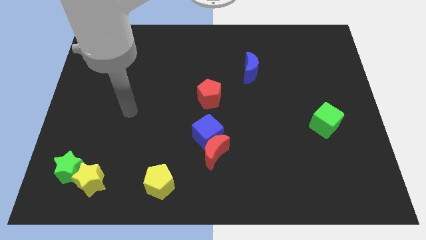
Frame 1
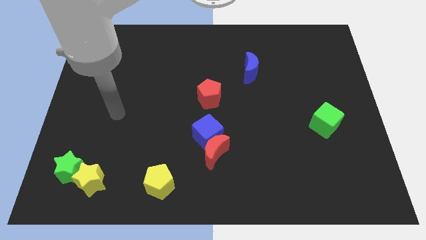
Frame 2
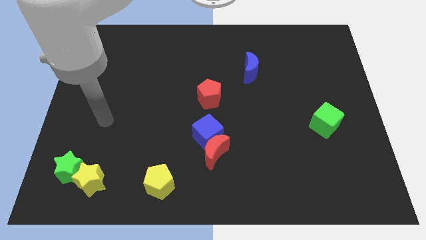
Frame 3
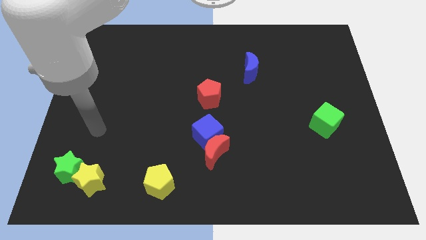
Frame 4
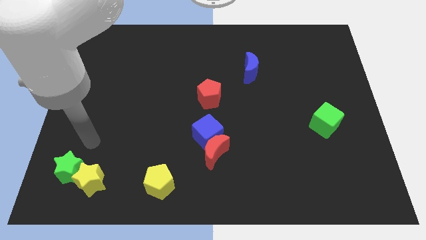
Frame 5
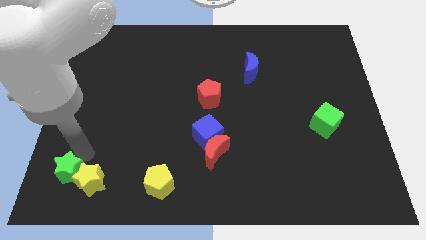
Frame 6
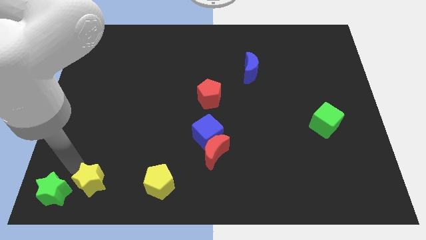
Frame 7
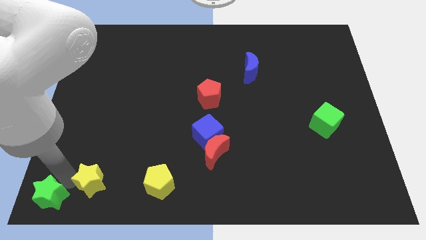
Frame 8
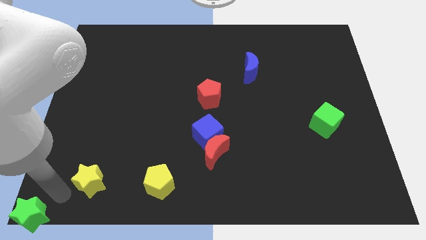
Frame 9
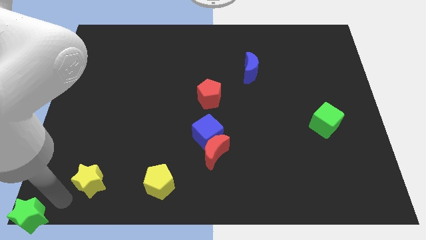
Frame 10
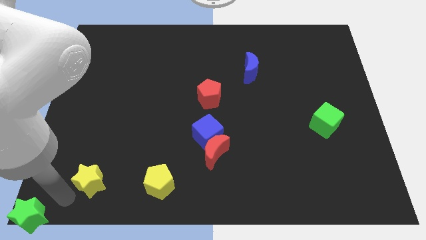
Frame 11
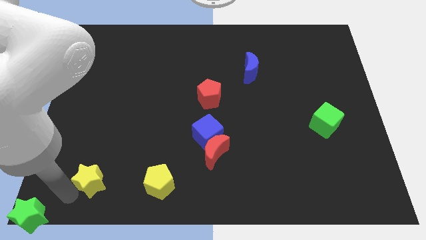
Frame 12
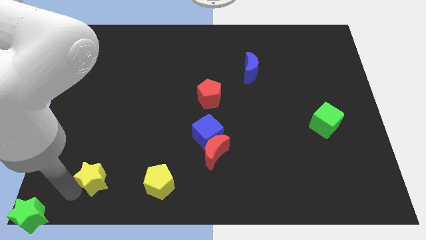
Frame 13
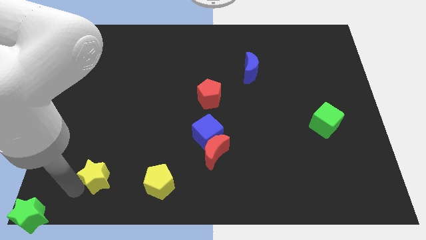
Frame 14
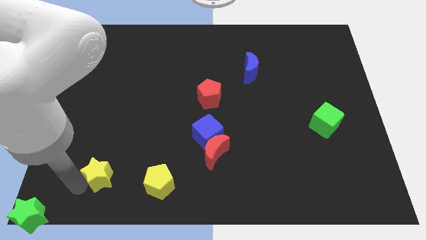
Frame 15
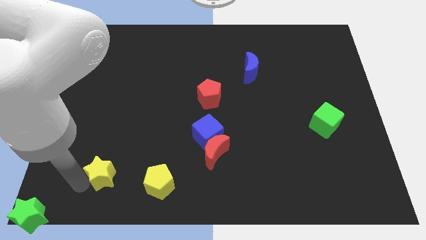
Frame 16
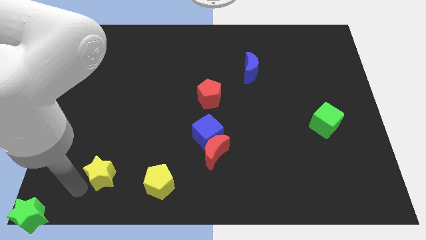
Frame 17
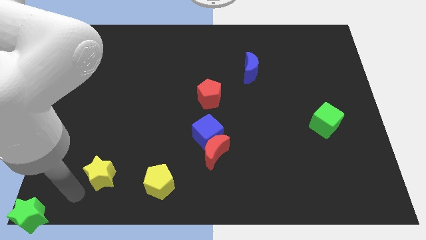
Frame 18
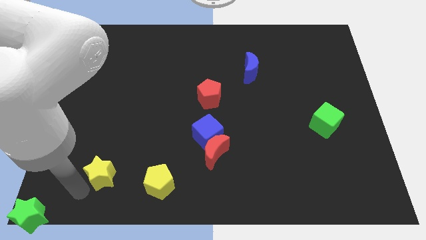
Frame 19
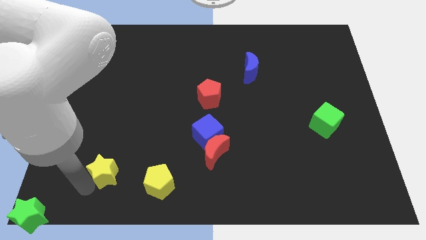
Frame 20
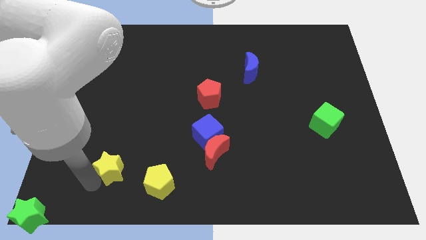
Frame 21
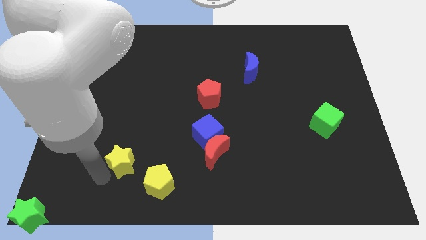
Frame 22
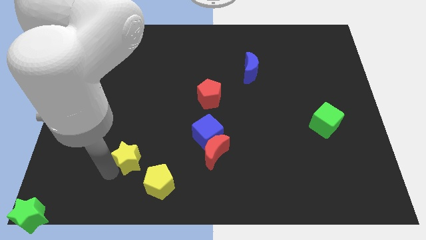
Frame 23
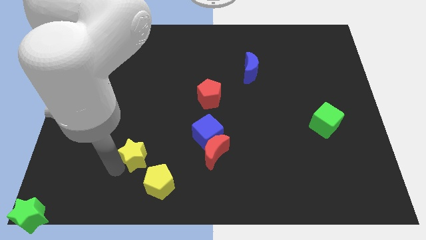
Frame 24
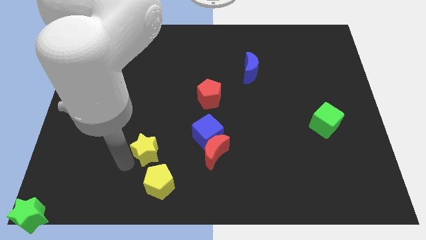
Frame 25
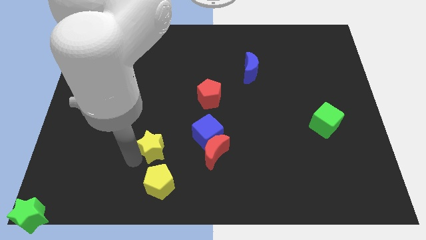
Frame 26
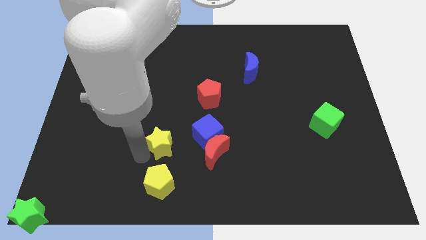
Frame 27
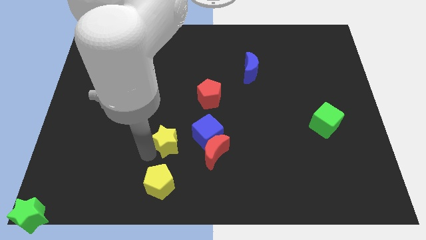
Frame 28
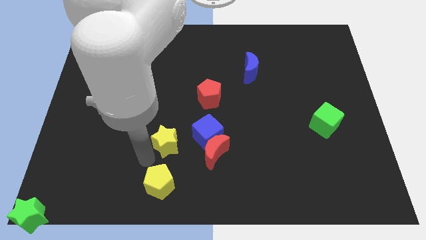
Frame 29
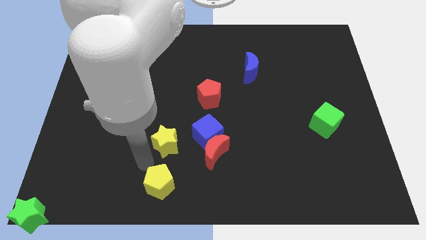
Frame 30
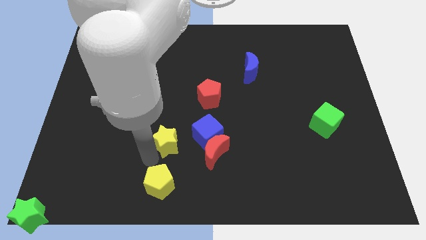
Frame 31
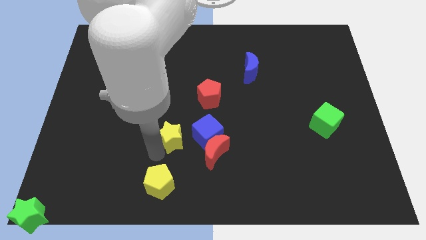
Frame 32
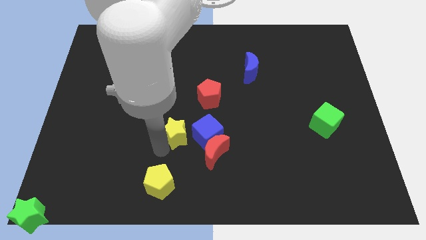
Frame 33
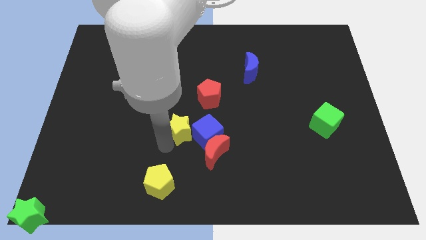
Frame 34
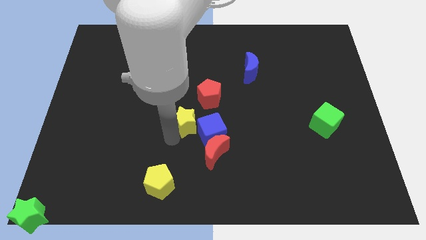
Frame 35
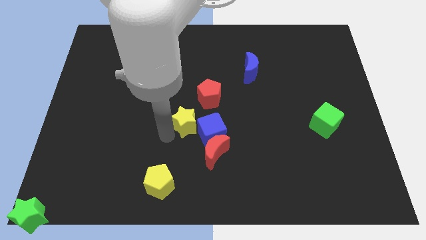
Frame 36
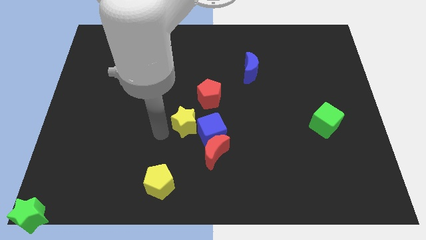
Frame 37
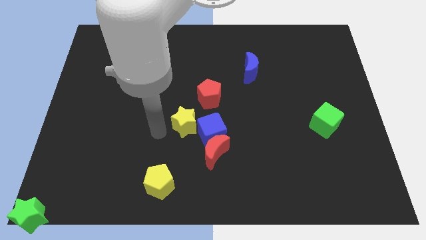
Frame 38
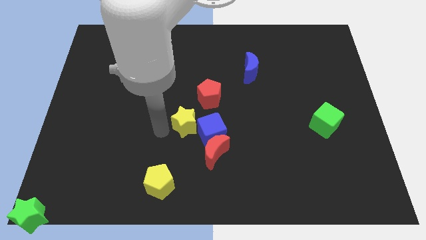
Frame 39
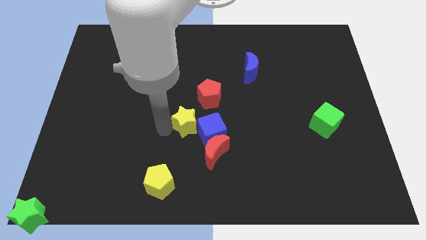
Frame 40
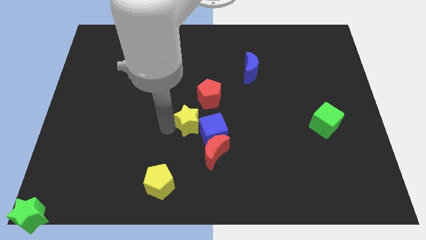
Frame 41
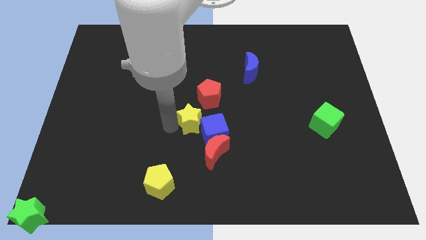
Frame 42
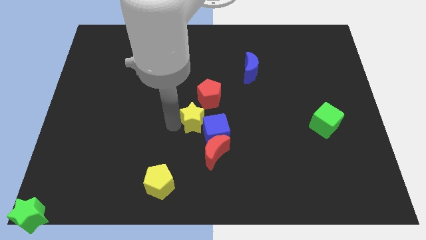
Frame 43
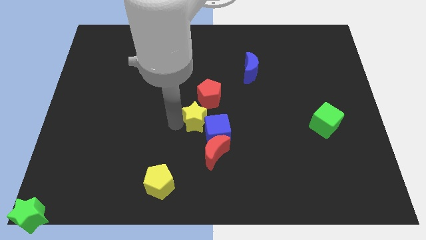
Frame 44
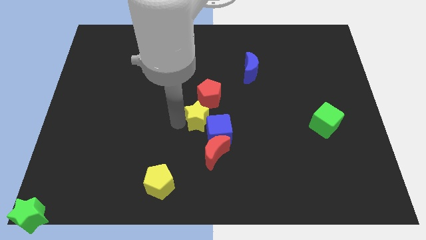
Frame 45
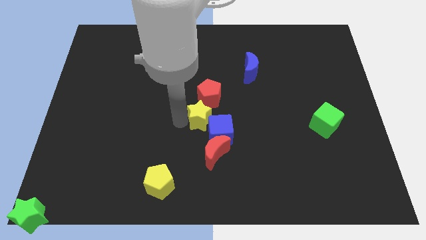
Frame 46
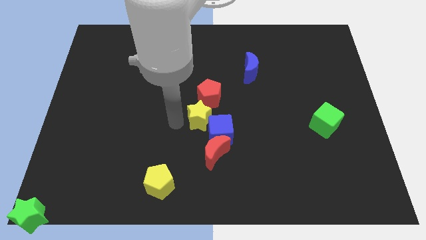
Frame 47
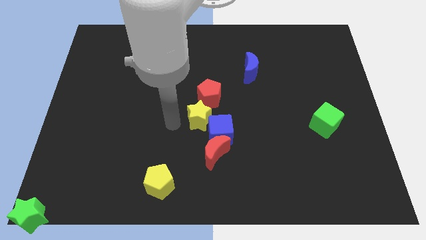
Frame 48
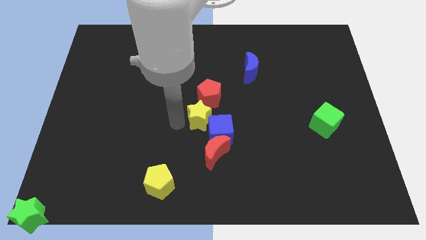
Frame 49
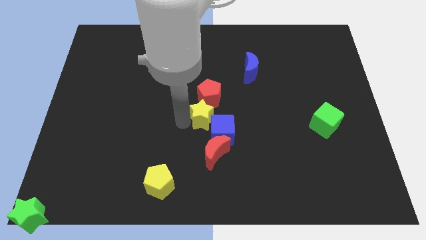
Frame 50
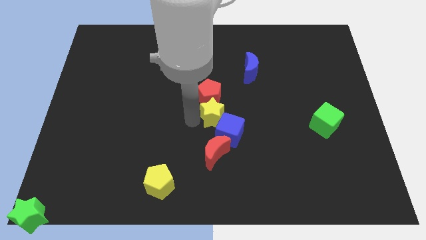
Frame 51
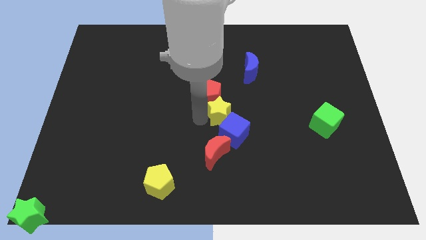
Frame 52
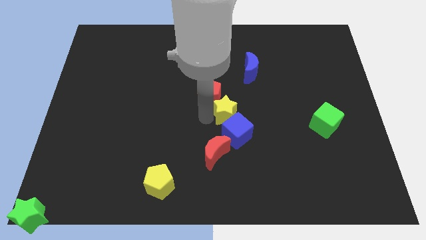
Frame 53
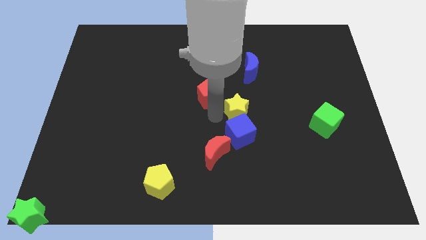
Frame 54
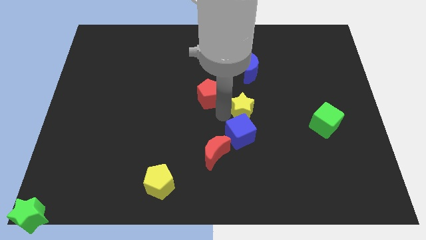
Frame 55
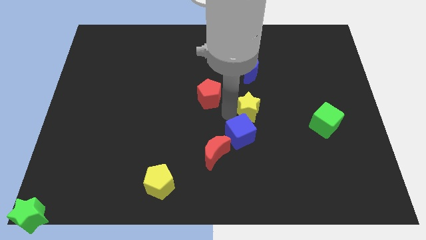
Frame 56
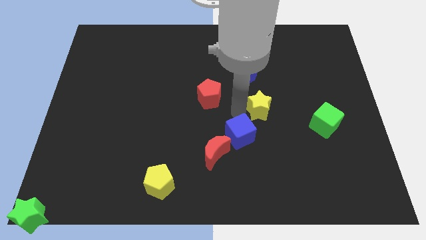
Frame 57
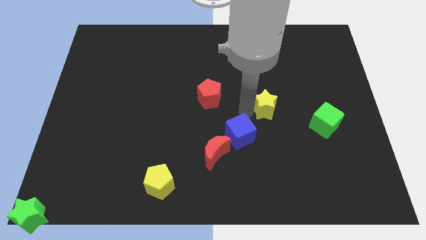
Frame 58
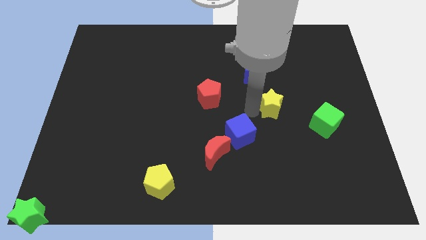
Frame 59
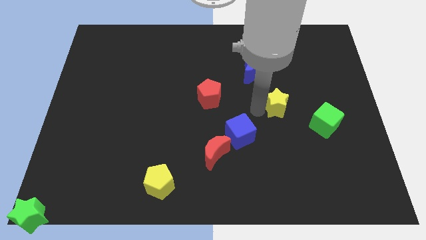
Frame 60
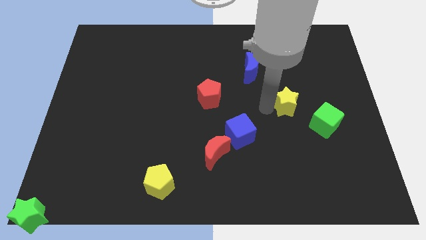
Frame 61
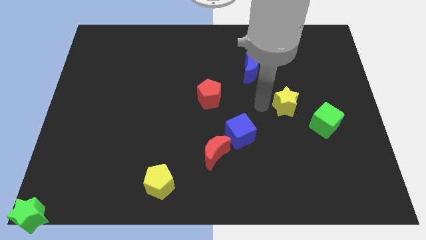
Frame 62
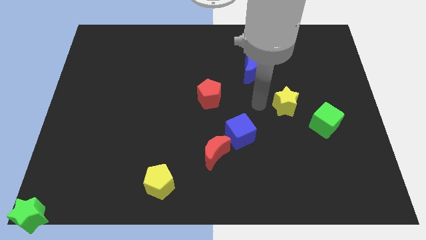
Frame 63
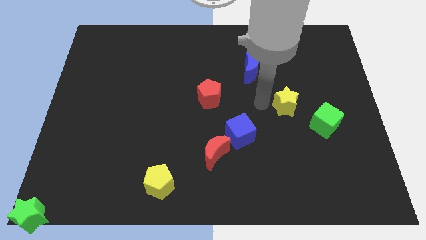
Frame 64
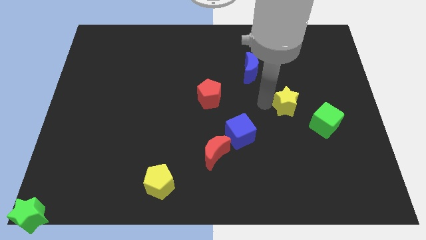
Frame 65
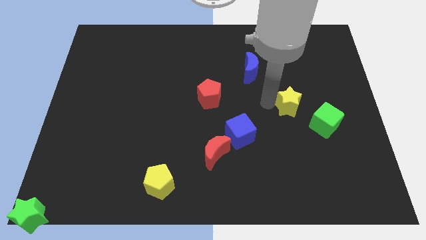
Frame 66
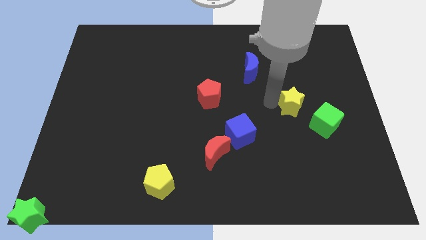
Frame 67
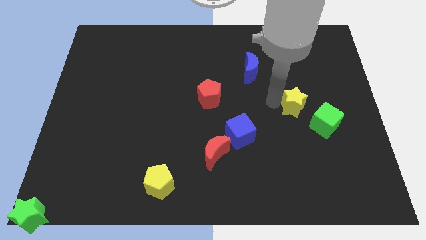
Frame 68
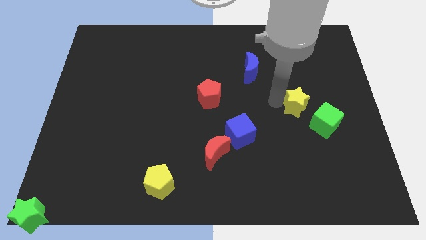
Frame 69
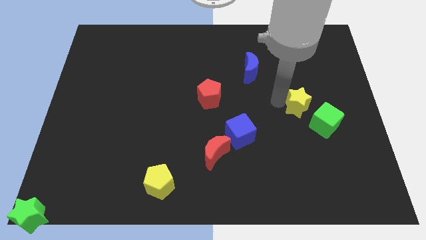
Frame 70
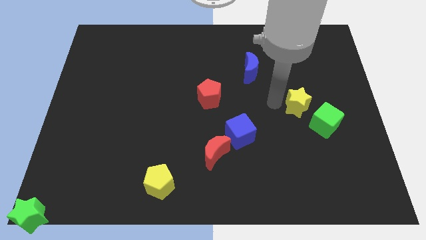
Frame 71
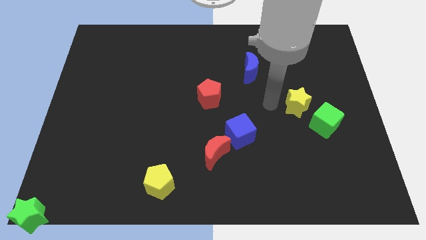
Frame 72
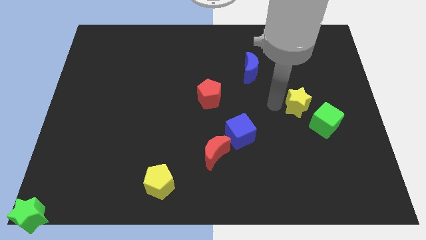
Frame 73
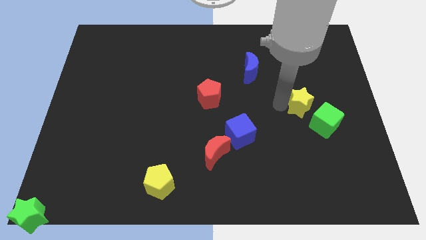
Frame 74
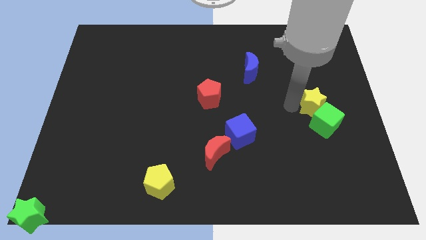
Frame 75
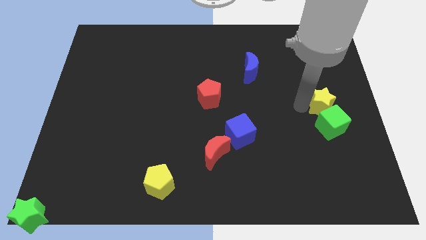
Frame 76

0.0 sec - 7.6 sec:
push the yellow star to the right side of the board
